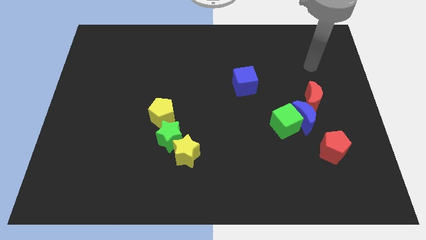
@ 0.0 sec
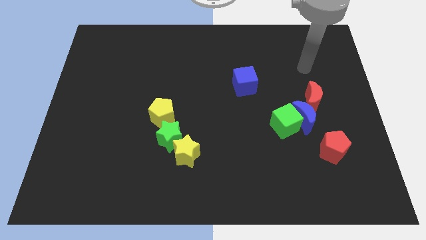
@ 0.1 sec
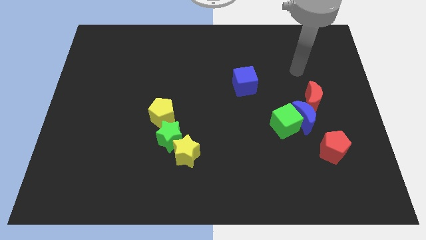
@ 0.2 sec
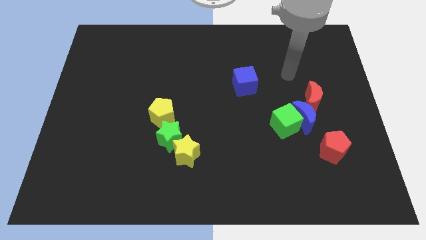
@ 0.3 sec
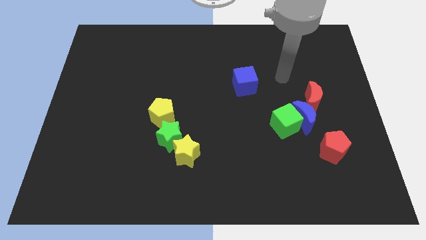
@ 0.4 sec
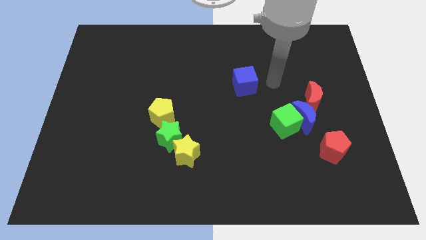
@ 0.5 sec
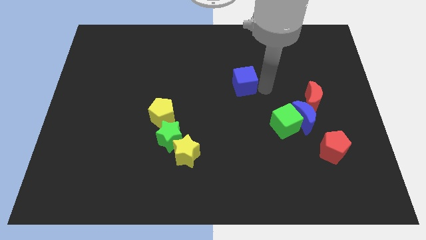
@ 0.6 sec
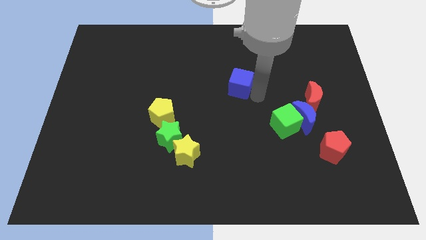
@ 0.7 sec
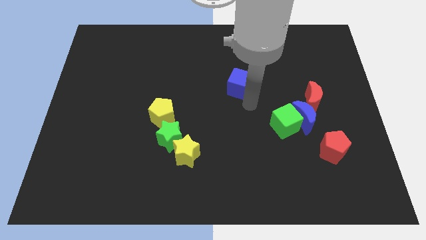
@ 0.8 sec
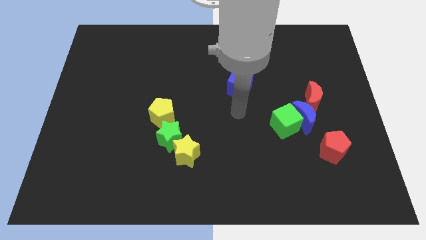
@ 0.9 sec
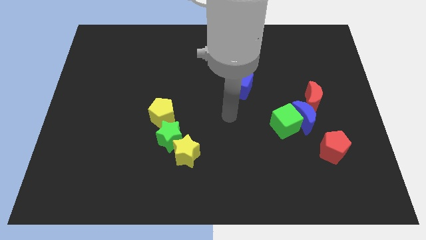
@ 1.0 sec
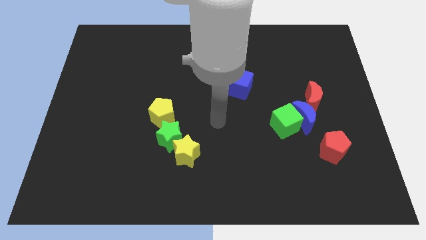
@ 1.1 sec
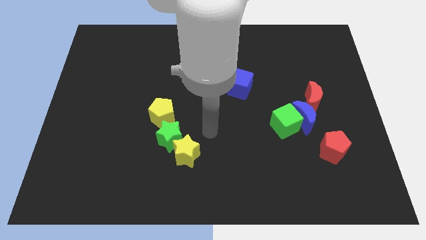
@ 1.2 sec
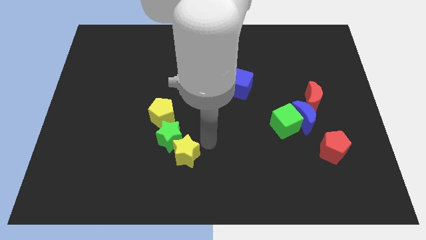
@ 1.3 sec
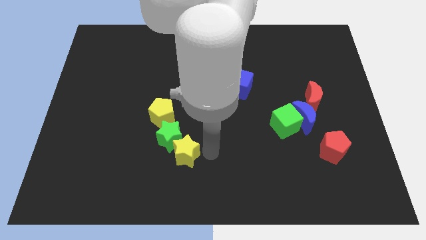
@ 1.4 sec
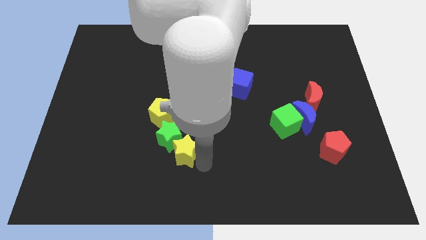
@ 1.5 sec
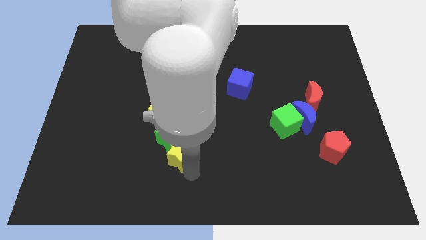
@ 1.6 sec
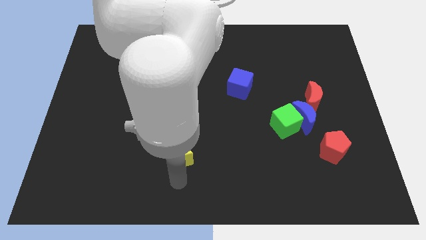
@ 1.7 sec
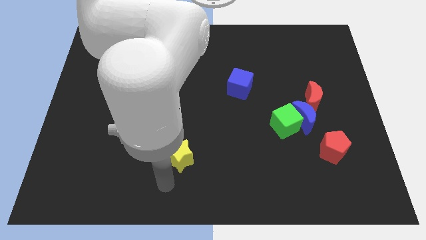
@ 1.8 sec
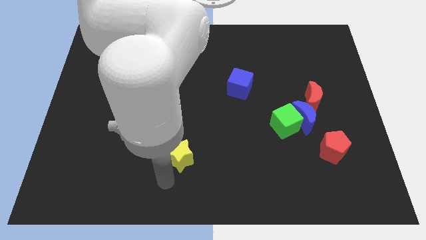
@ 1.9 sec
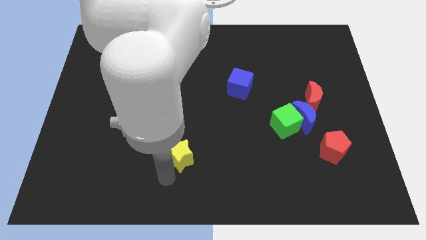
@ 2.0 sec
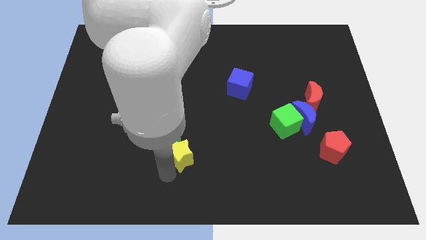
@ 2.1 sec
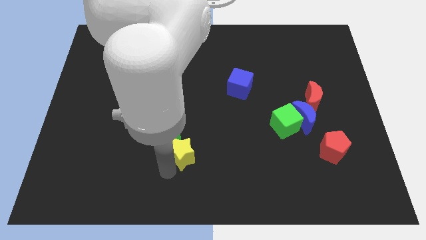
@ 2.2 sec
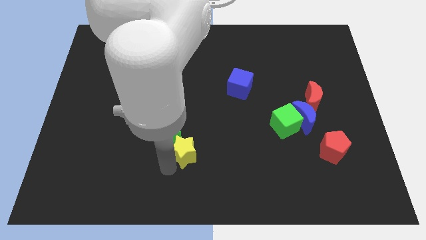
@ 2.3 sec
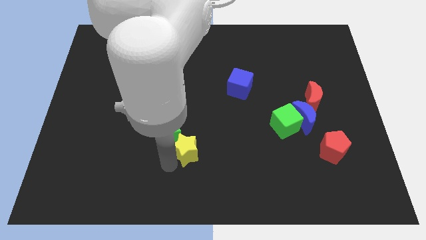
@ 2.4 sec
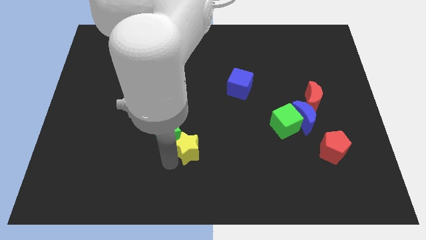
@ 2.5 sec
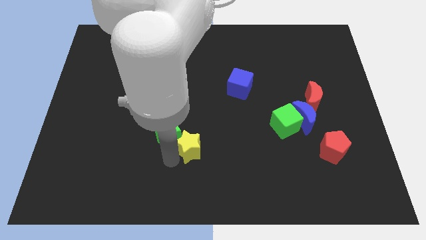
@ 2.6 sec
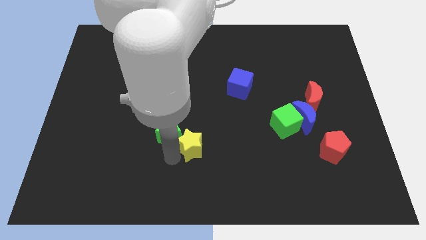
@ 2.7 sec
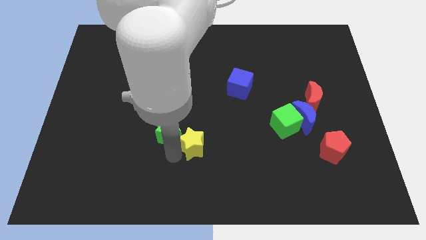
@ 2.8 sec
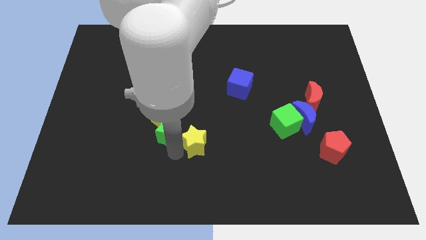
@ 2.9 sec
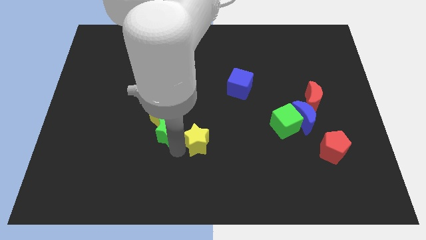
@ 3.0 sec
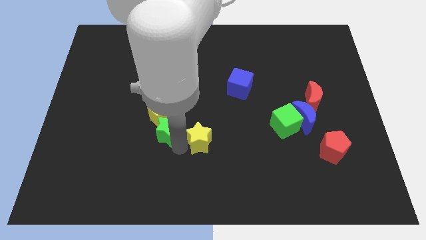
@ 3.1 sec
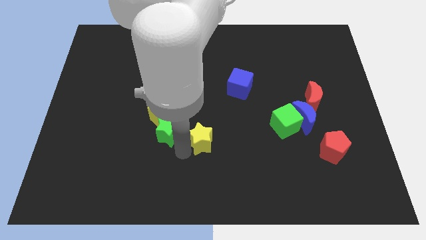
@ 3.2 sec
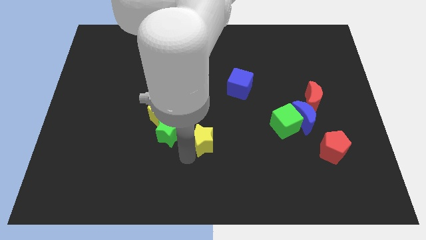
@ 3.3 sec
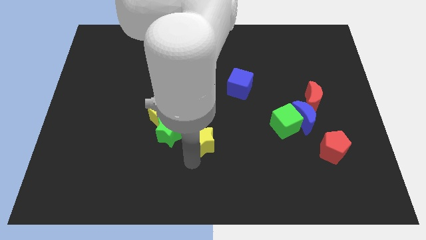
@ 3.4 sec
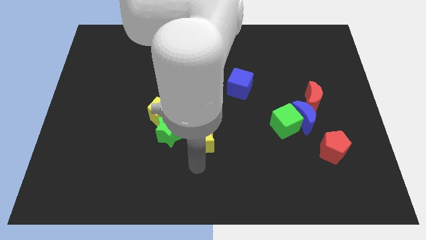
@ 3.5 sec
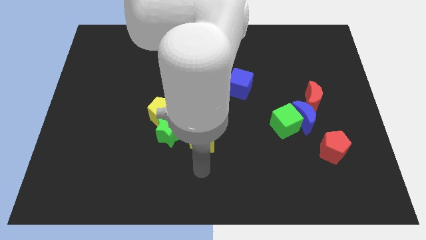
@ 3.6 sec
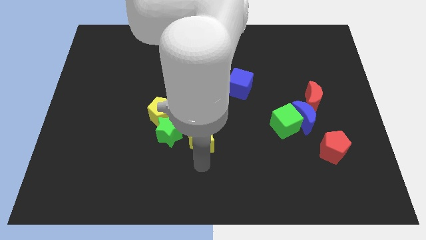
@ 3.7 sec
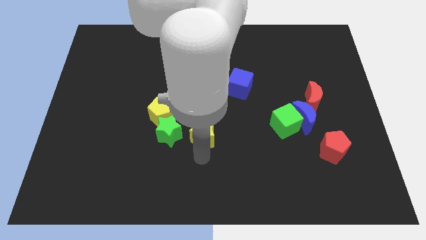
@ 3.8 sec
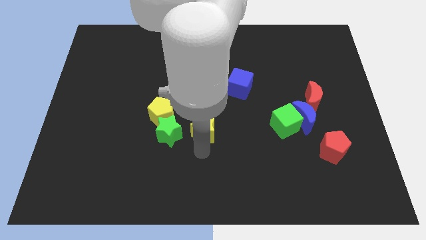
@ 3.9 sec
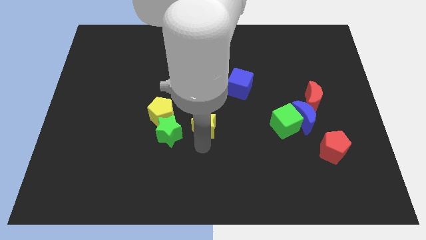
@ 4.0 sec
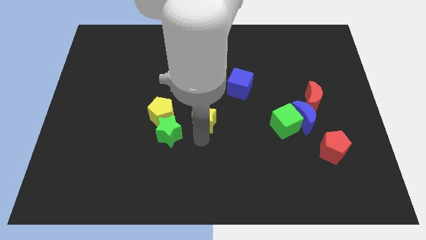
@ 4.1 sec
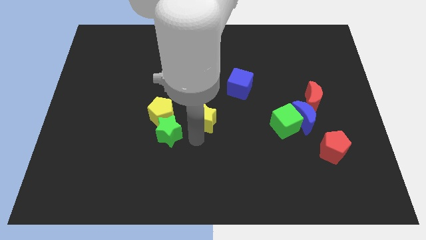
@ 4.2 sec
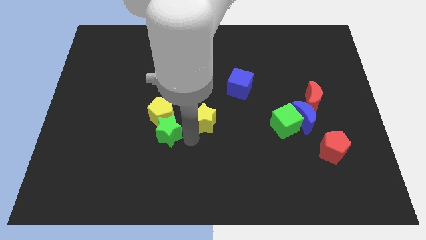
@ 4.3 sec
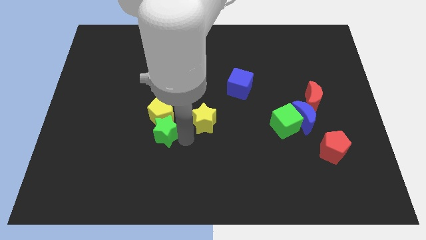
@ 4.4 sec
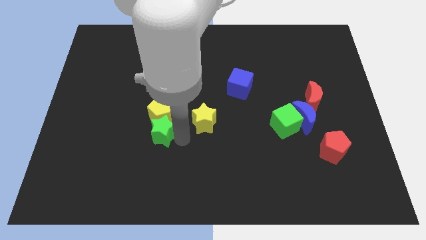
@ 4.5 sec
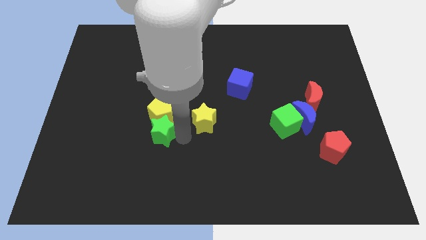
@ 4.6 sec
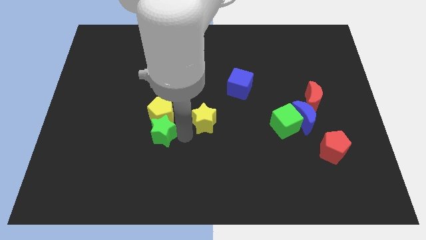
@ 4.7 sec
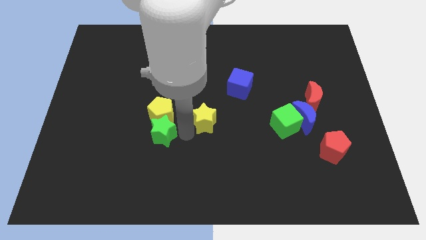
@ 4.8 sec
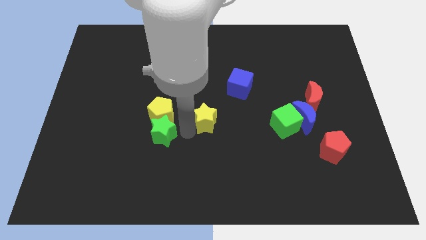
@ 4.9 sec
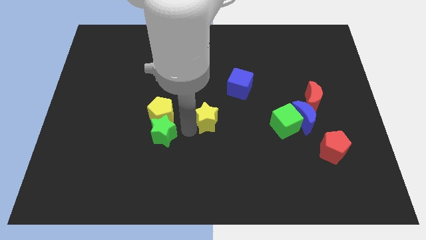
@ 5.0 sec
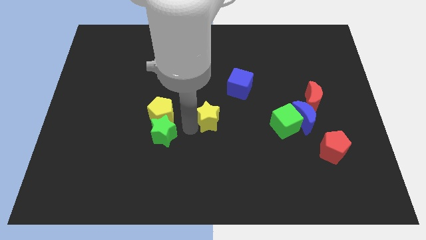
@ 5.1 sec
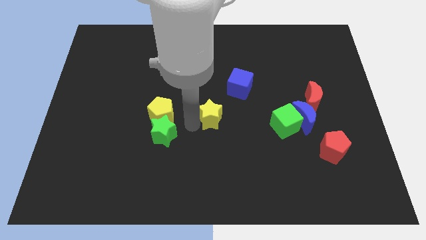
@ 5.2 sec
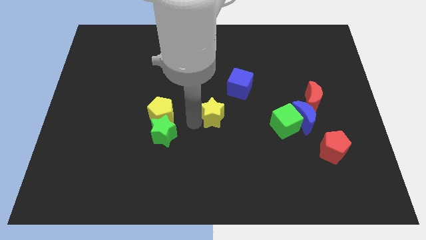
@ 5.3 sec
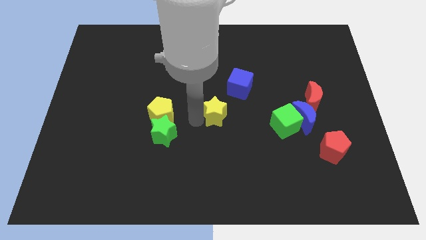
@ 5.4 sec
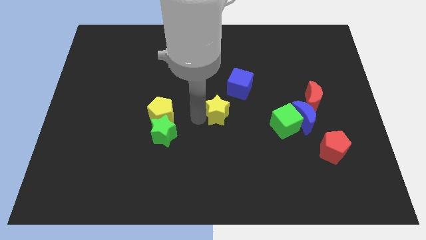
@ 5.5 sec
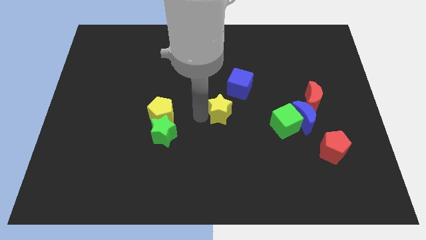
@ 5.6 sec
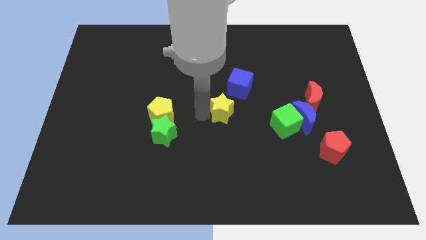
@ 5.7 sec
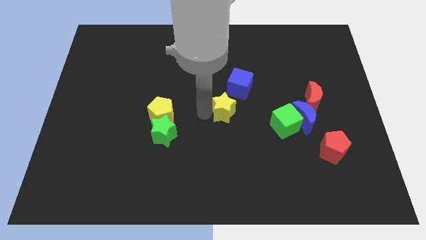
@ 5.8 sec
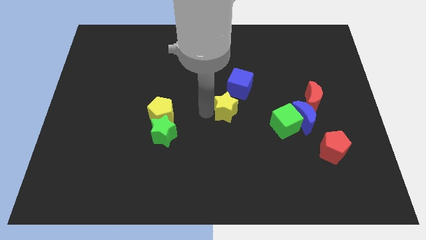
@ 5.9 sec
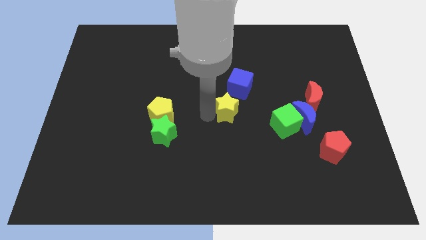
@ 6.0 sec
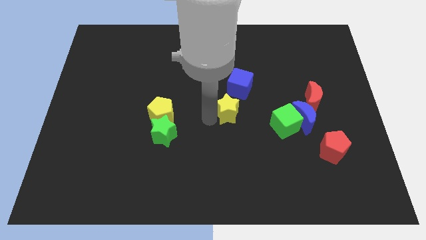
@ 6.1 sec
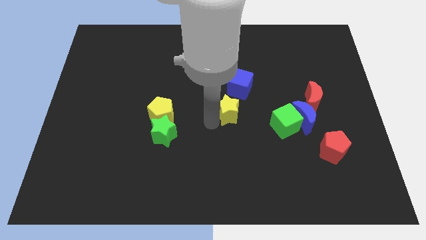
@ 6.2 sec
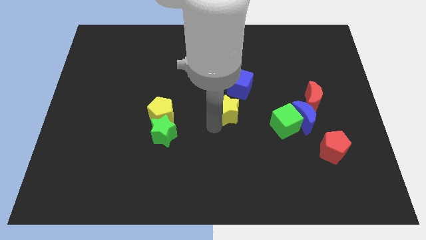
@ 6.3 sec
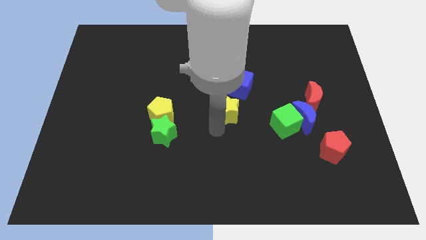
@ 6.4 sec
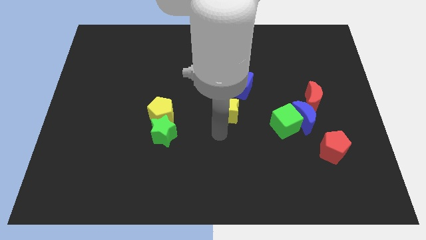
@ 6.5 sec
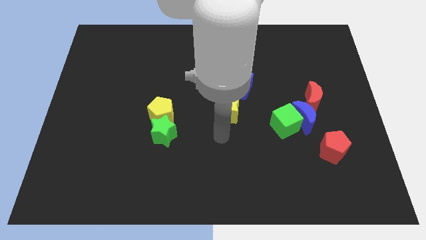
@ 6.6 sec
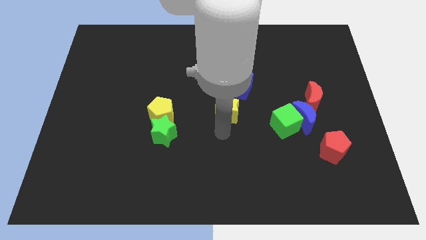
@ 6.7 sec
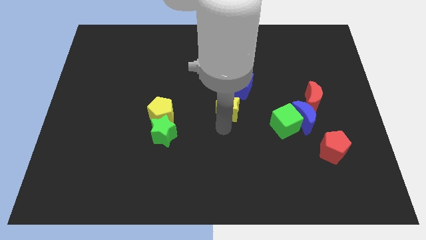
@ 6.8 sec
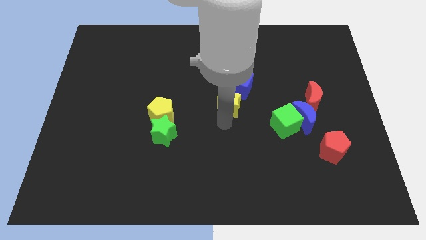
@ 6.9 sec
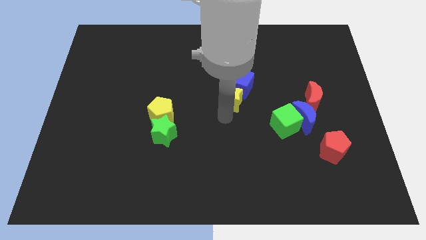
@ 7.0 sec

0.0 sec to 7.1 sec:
push the yellow star close to the blue cube

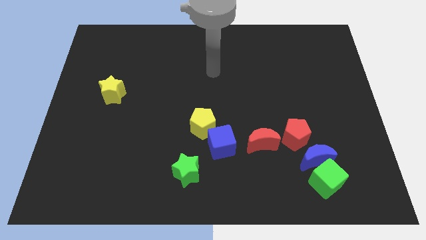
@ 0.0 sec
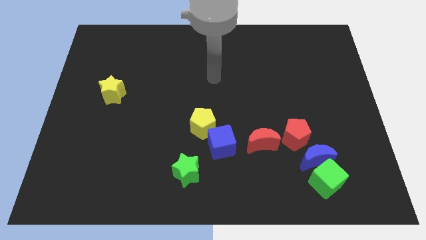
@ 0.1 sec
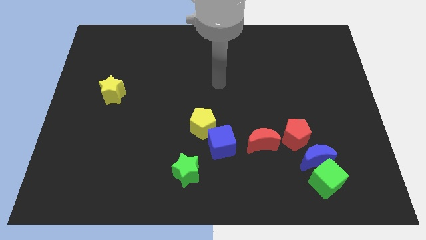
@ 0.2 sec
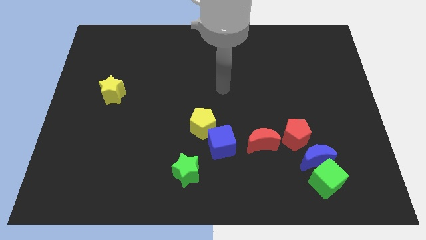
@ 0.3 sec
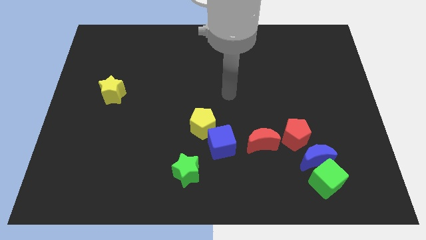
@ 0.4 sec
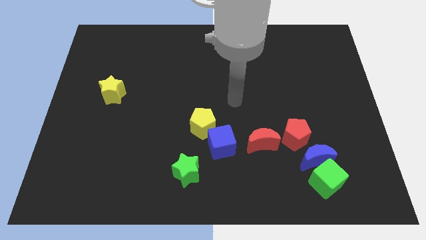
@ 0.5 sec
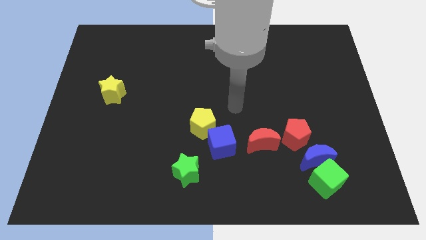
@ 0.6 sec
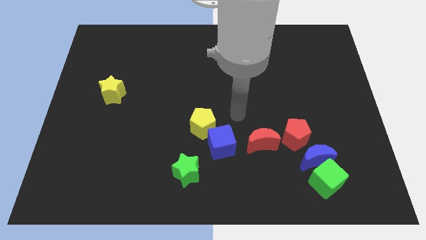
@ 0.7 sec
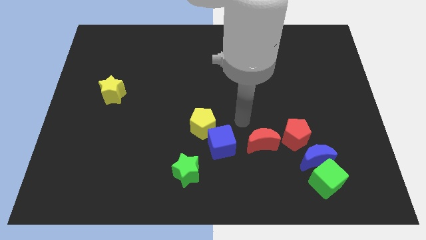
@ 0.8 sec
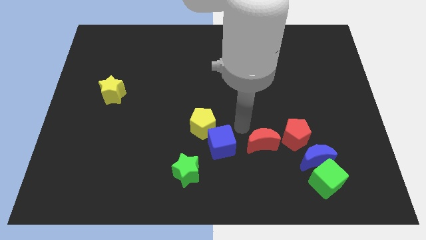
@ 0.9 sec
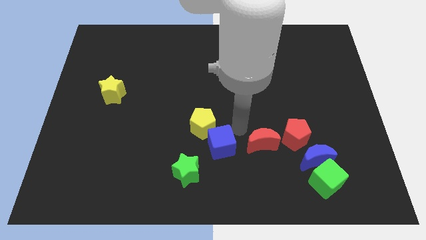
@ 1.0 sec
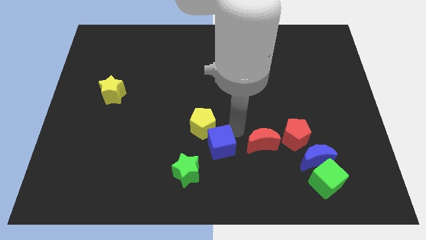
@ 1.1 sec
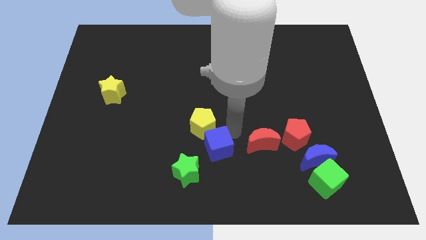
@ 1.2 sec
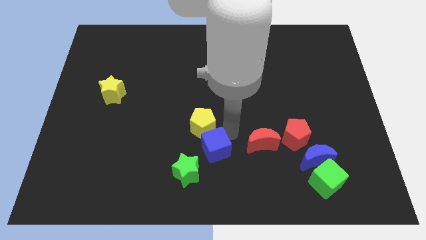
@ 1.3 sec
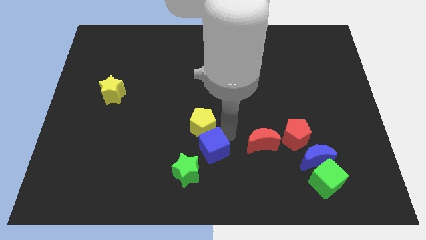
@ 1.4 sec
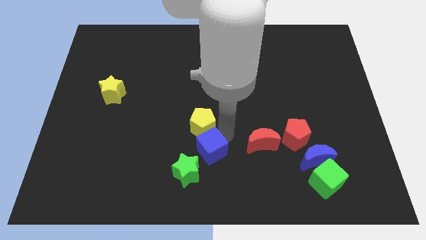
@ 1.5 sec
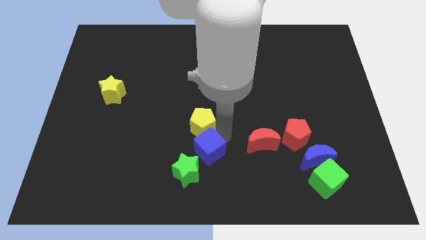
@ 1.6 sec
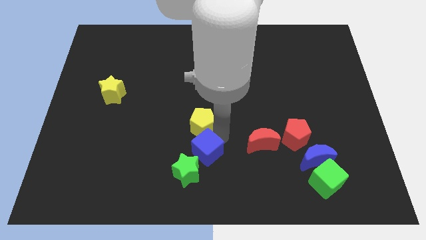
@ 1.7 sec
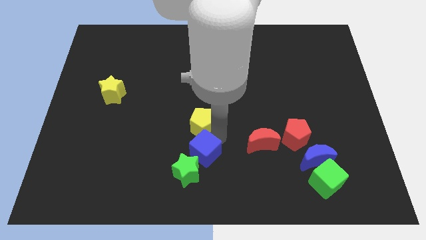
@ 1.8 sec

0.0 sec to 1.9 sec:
slide the blue cube next to the green star
